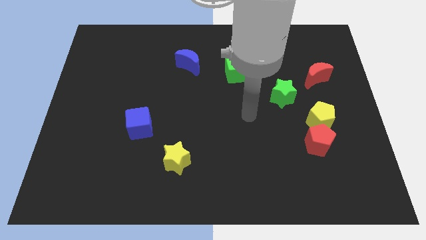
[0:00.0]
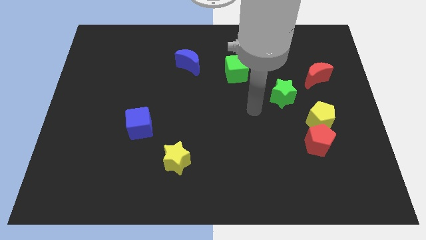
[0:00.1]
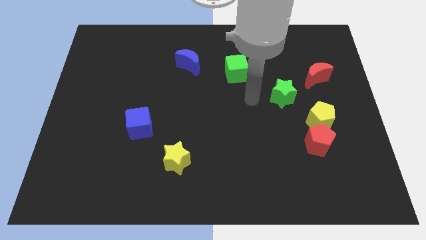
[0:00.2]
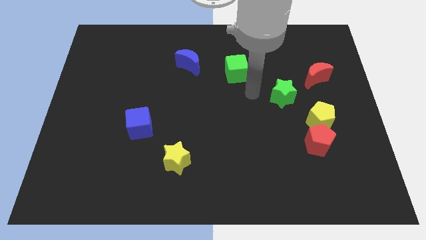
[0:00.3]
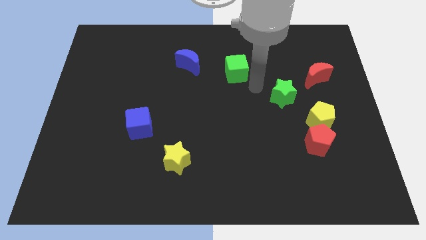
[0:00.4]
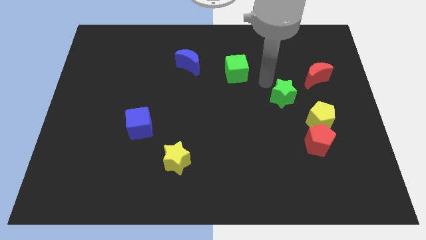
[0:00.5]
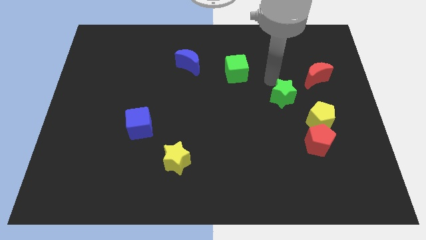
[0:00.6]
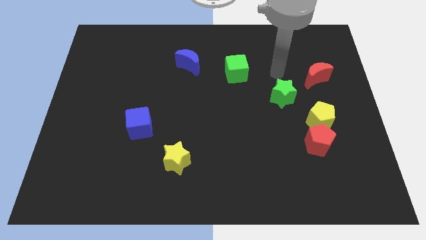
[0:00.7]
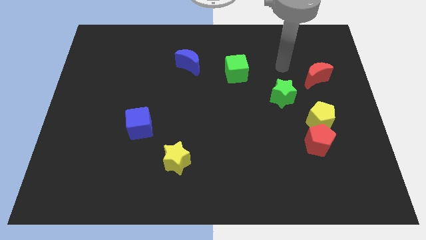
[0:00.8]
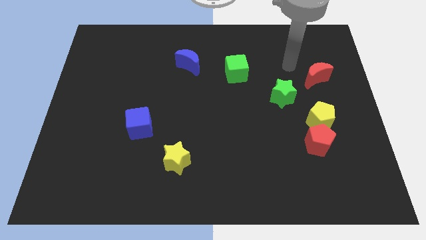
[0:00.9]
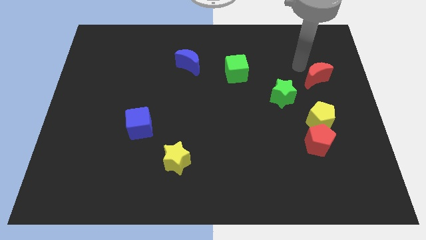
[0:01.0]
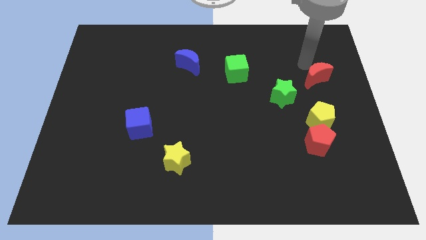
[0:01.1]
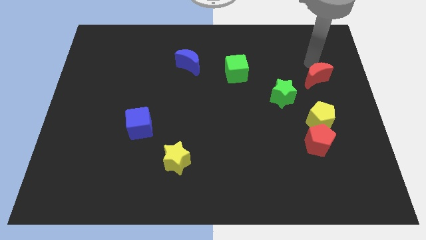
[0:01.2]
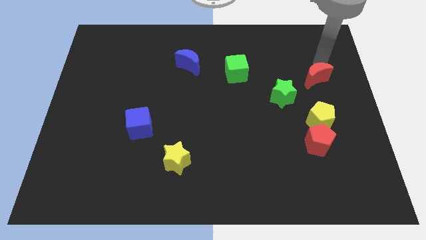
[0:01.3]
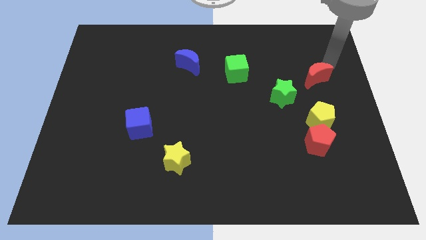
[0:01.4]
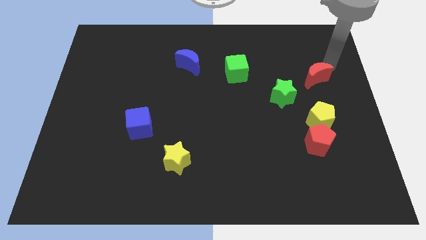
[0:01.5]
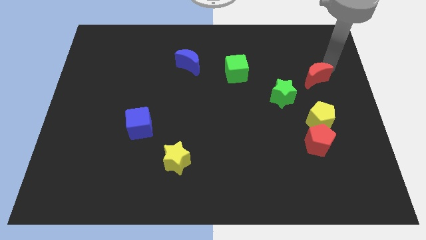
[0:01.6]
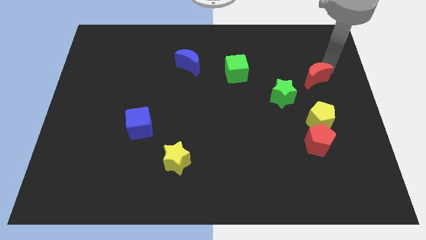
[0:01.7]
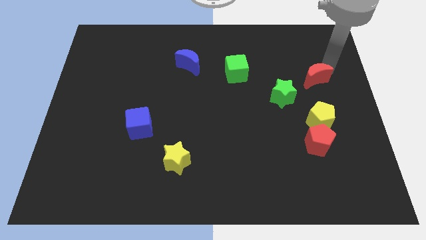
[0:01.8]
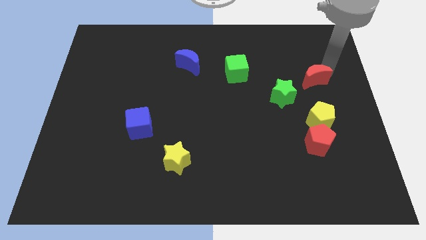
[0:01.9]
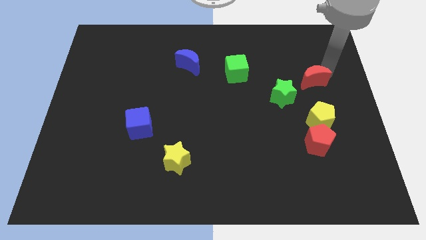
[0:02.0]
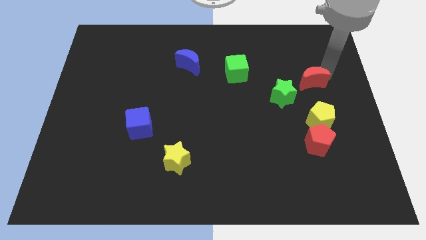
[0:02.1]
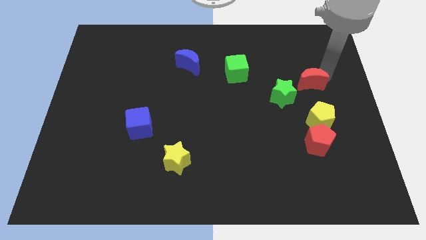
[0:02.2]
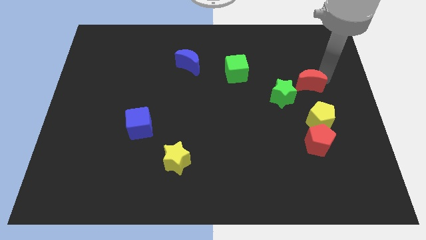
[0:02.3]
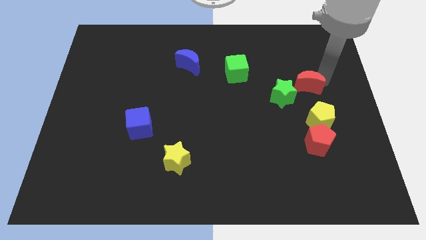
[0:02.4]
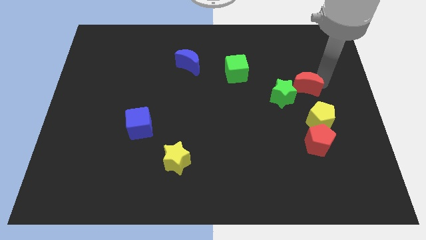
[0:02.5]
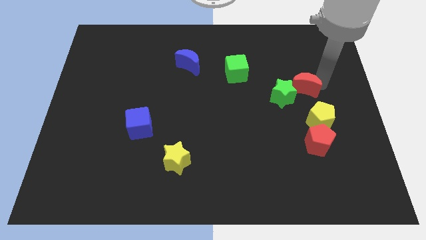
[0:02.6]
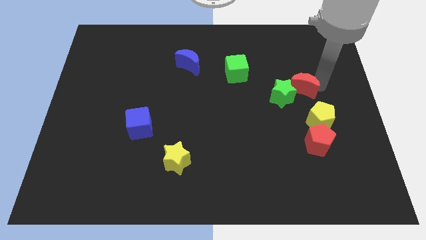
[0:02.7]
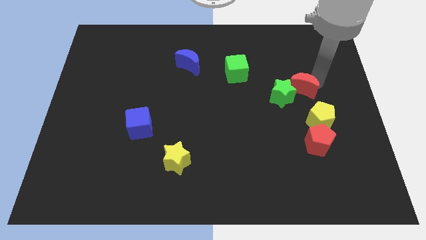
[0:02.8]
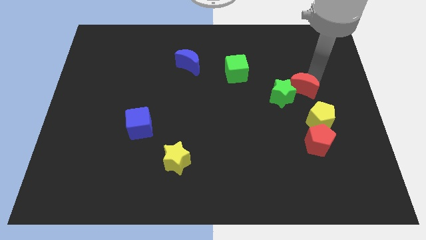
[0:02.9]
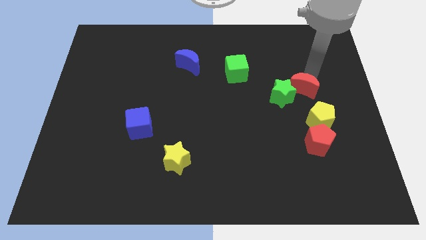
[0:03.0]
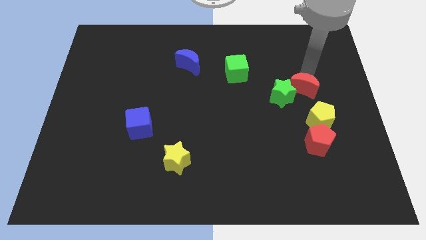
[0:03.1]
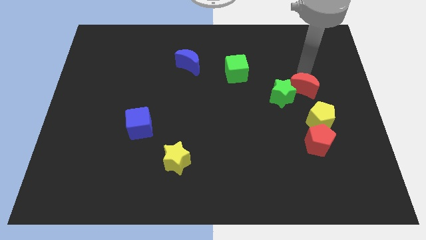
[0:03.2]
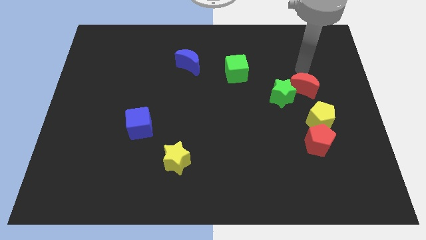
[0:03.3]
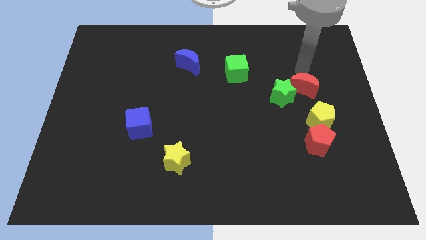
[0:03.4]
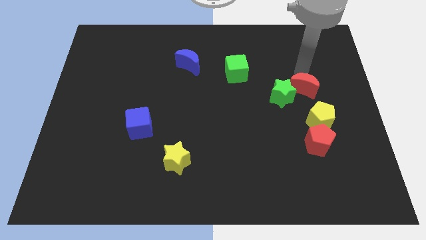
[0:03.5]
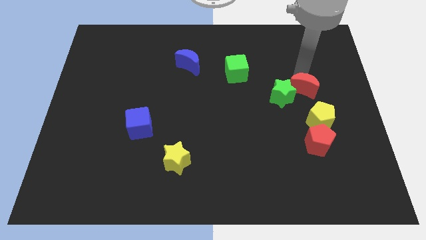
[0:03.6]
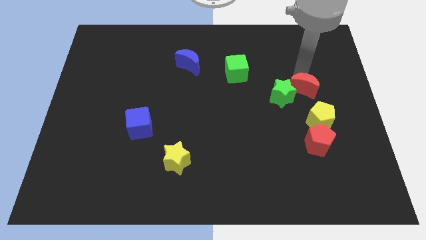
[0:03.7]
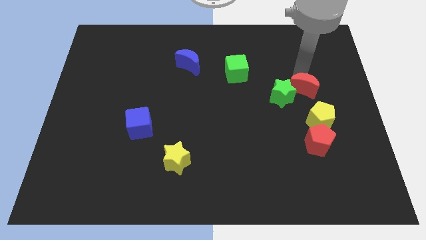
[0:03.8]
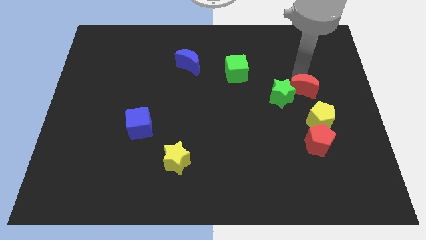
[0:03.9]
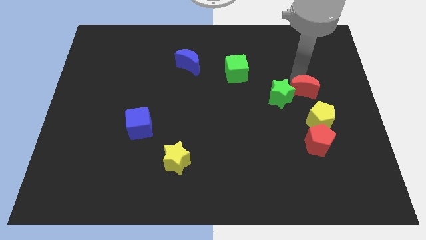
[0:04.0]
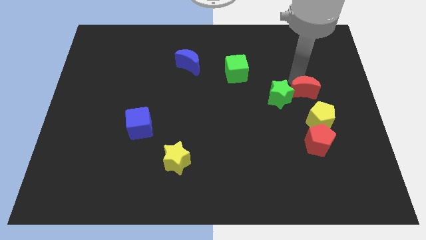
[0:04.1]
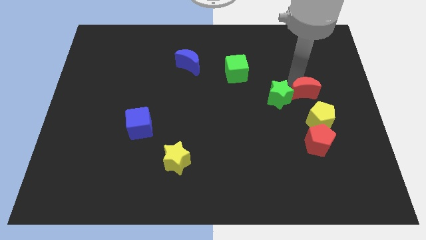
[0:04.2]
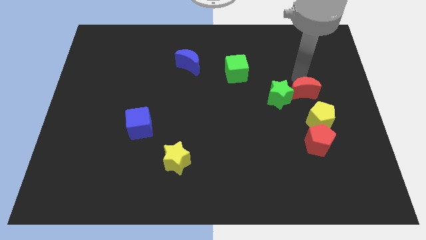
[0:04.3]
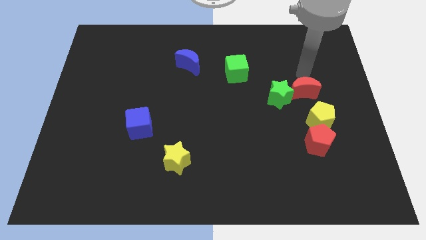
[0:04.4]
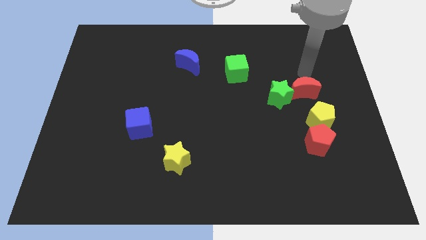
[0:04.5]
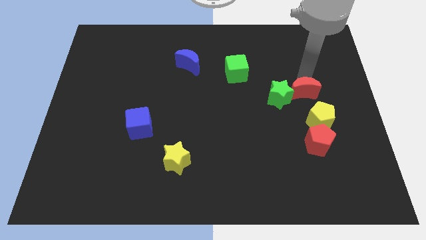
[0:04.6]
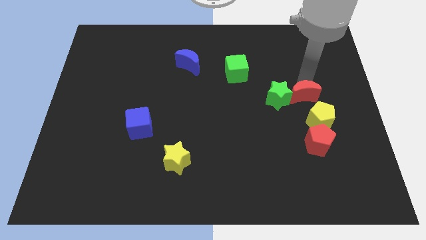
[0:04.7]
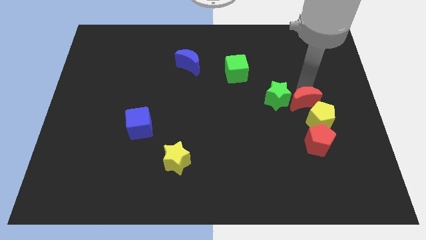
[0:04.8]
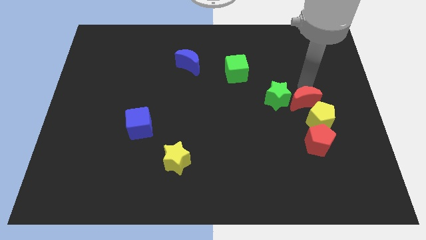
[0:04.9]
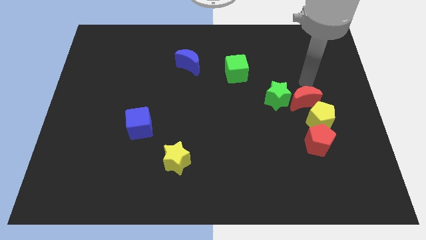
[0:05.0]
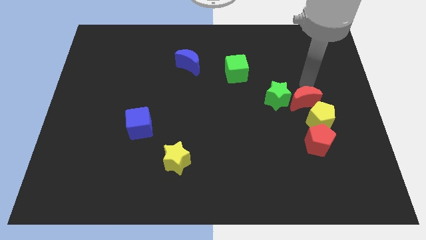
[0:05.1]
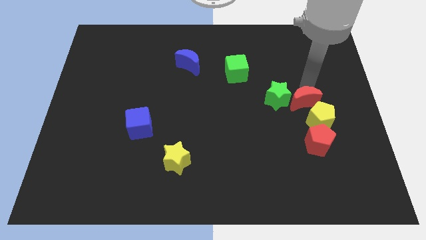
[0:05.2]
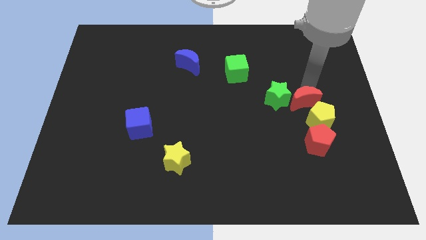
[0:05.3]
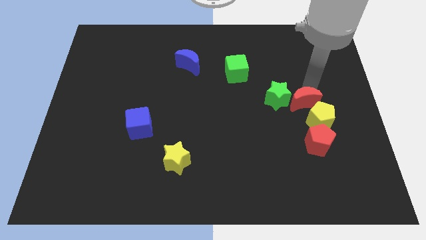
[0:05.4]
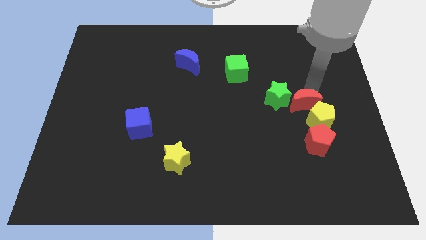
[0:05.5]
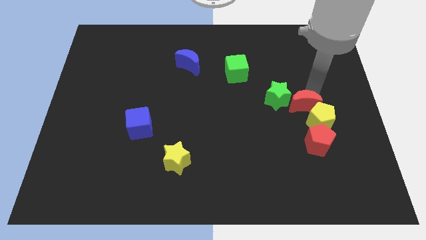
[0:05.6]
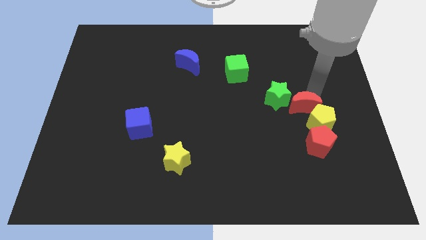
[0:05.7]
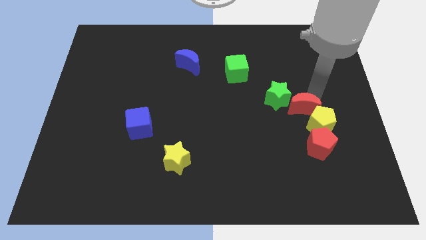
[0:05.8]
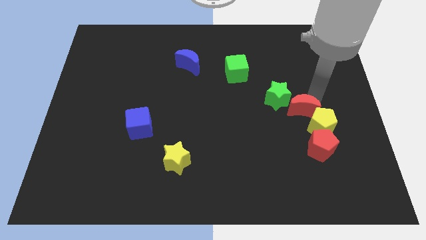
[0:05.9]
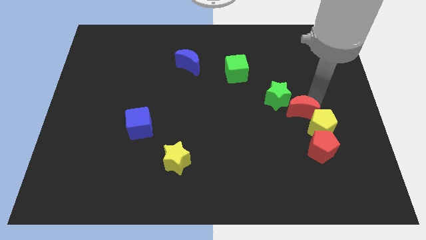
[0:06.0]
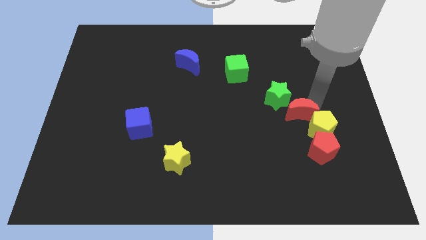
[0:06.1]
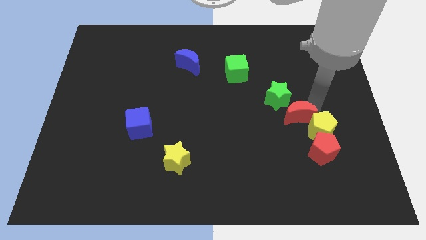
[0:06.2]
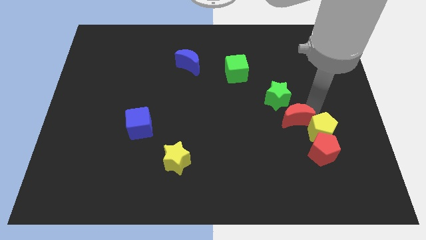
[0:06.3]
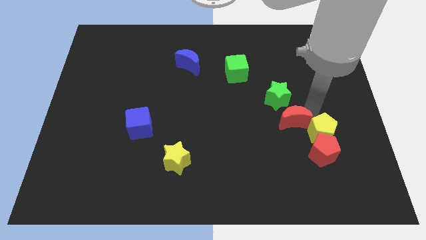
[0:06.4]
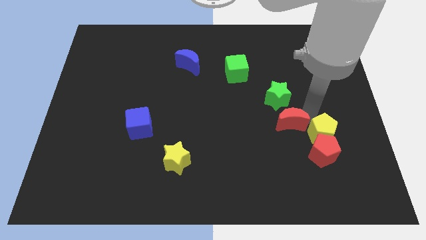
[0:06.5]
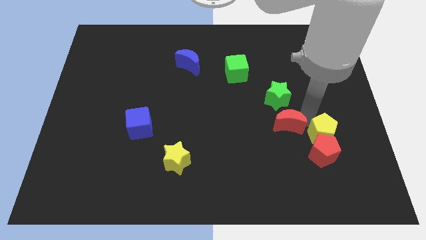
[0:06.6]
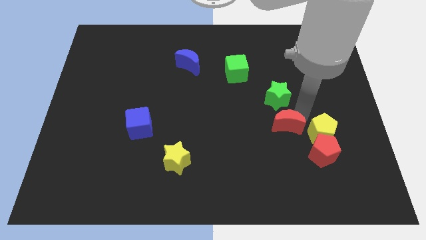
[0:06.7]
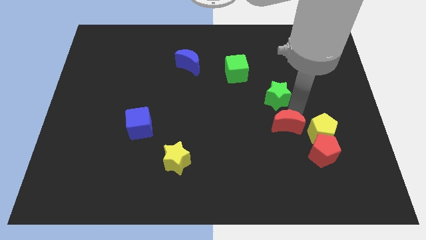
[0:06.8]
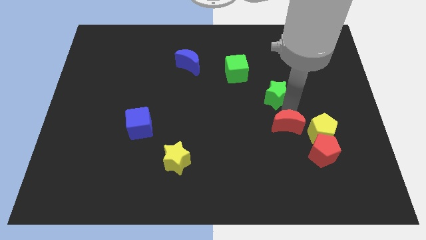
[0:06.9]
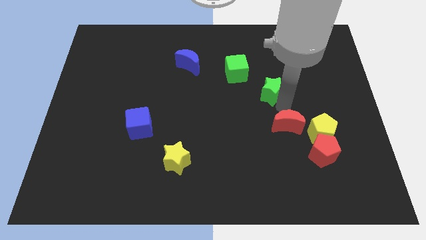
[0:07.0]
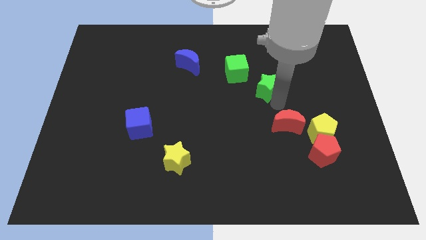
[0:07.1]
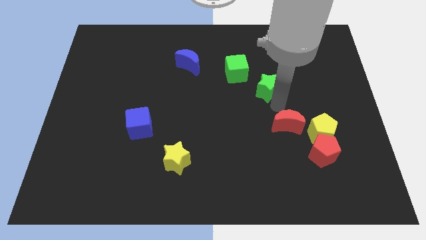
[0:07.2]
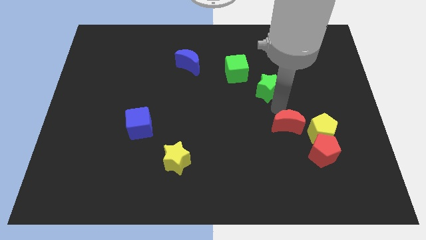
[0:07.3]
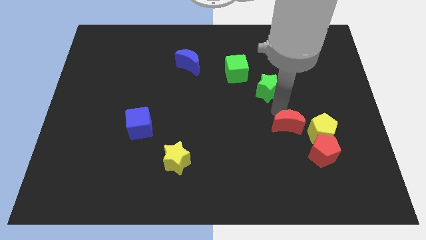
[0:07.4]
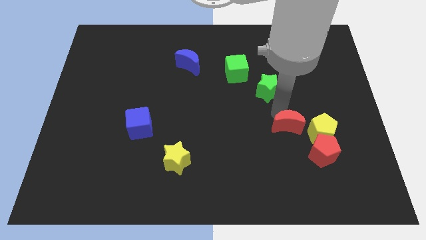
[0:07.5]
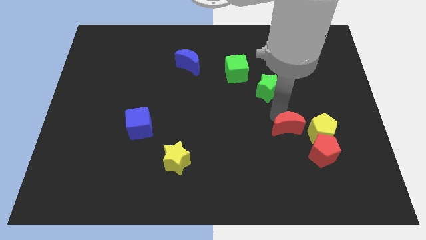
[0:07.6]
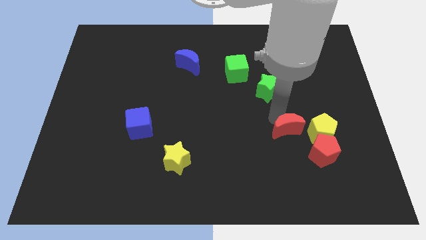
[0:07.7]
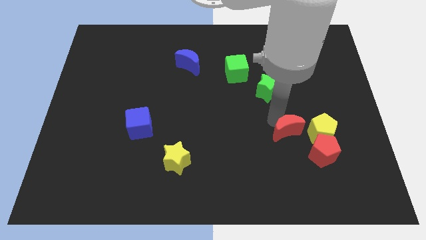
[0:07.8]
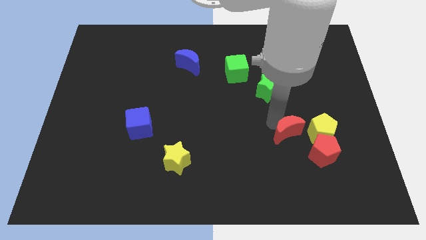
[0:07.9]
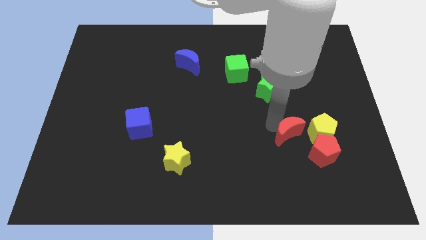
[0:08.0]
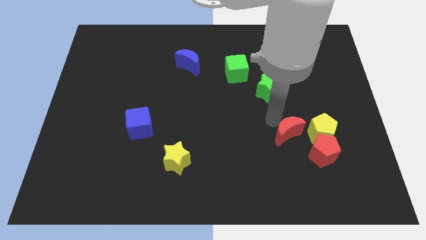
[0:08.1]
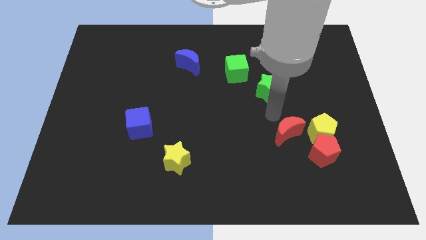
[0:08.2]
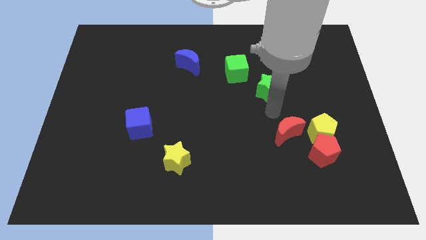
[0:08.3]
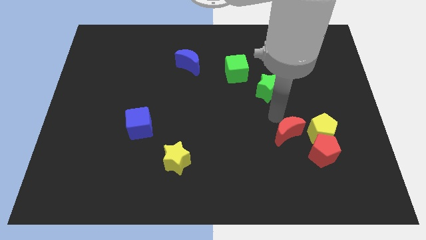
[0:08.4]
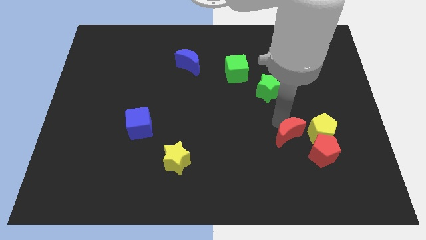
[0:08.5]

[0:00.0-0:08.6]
move the red moon to the bottom left side of the yellow pentagon
